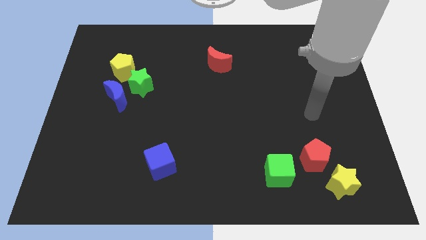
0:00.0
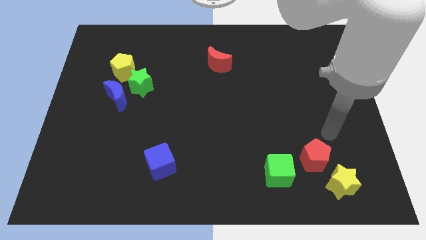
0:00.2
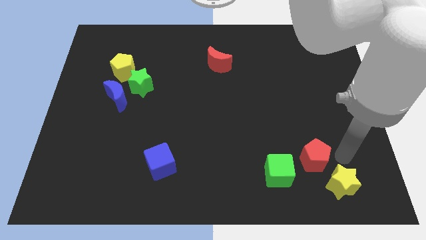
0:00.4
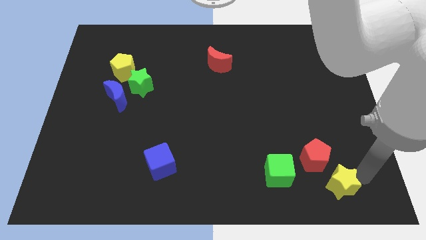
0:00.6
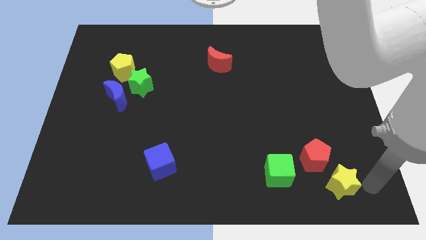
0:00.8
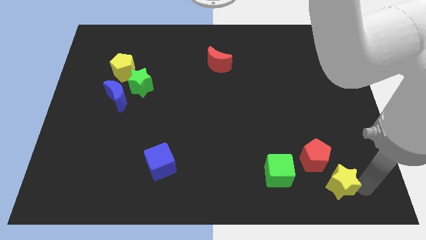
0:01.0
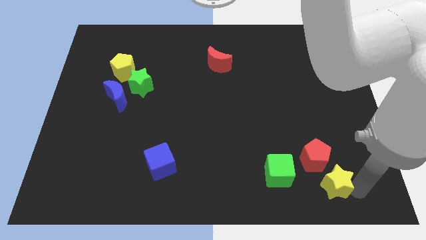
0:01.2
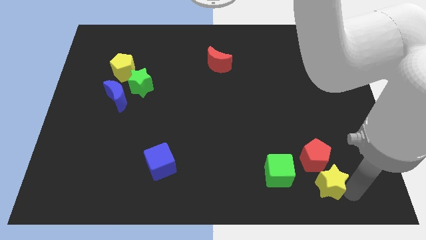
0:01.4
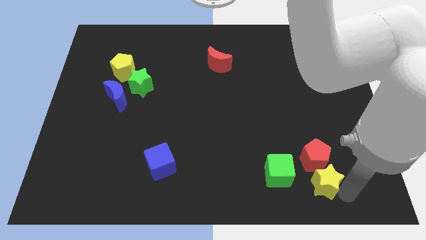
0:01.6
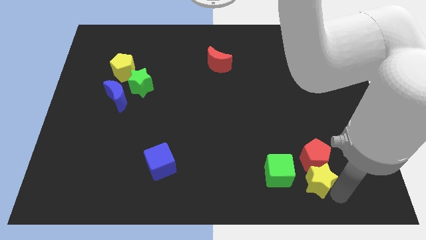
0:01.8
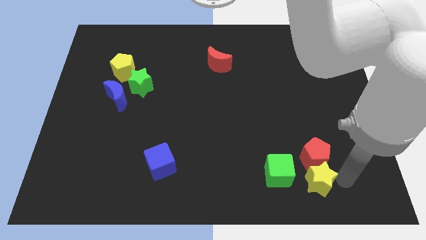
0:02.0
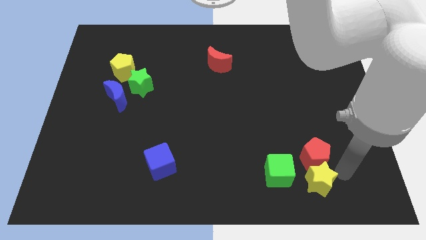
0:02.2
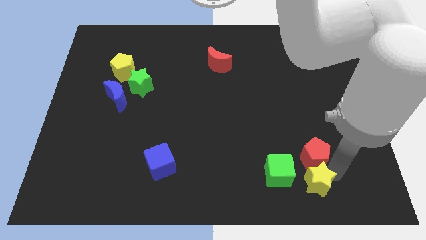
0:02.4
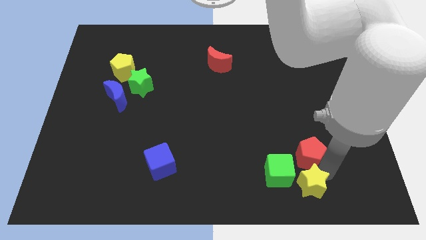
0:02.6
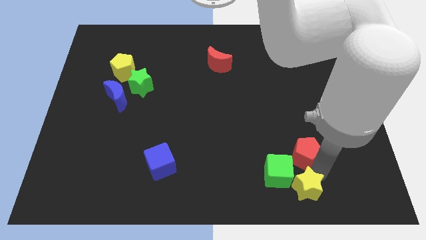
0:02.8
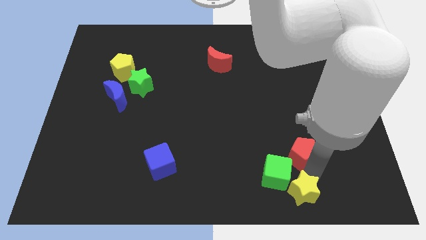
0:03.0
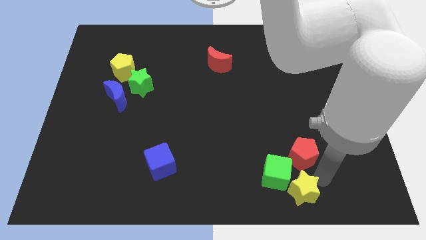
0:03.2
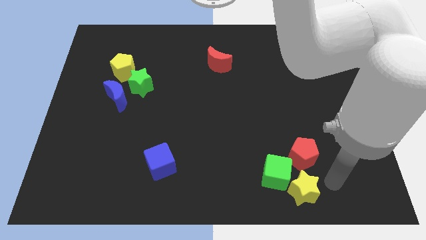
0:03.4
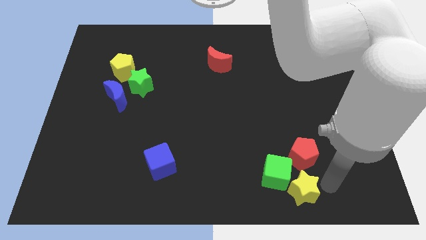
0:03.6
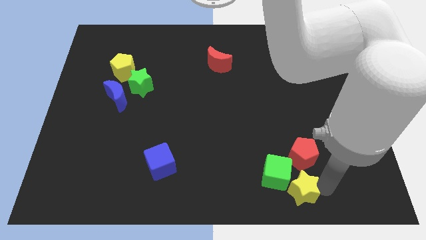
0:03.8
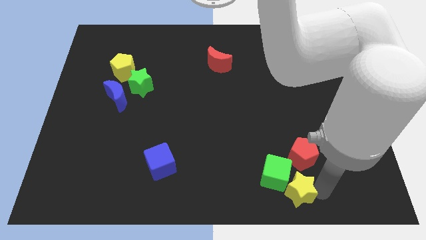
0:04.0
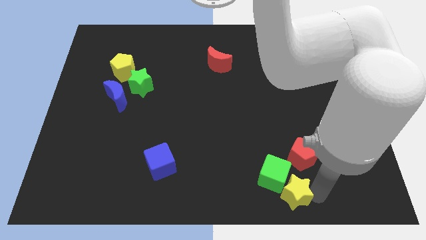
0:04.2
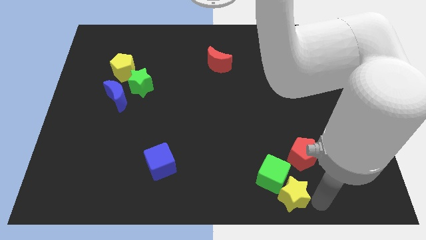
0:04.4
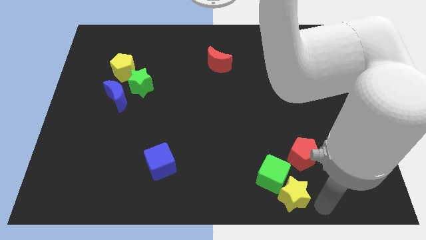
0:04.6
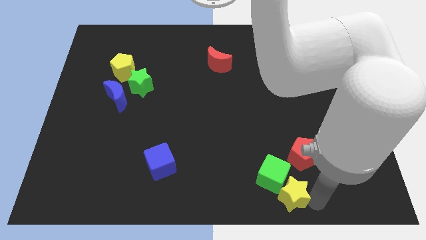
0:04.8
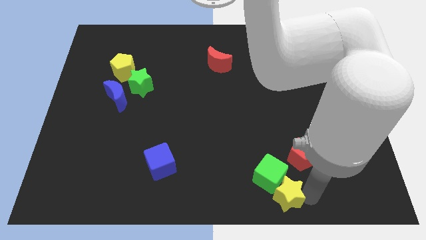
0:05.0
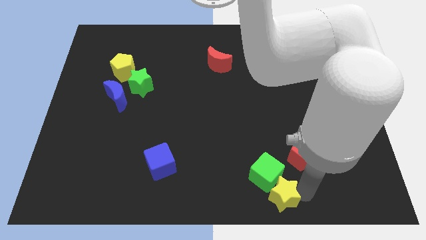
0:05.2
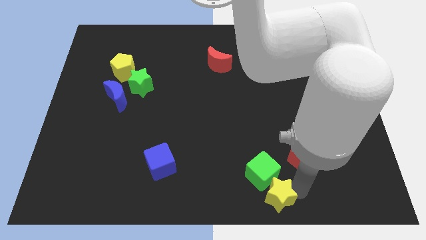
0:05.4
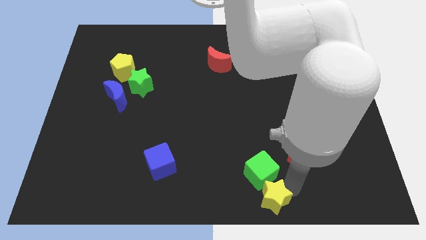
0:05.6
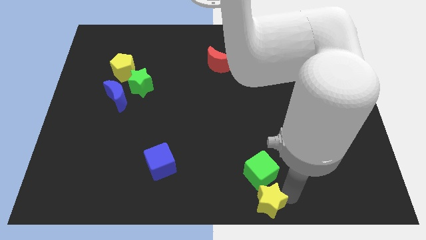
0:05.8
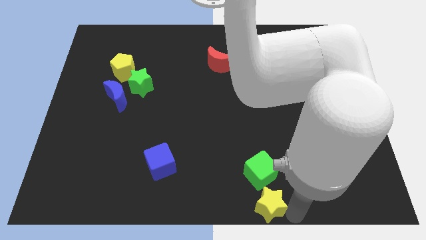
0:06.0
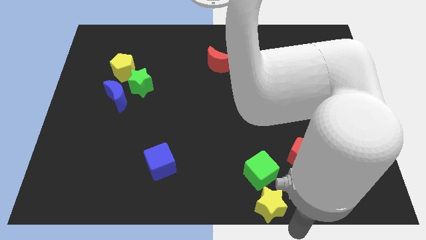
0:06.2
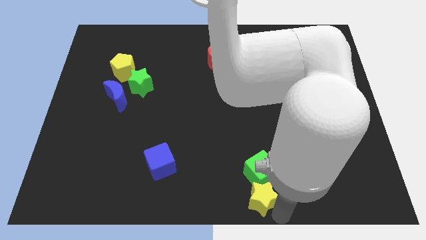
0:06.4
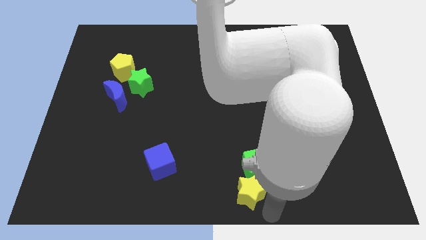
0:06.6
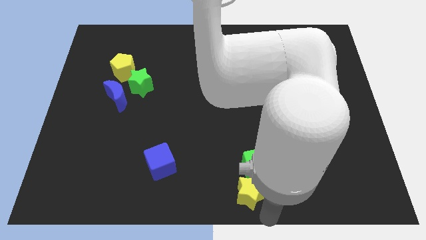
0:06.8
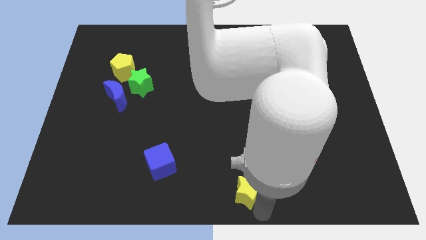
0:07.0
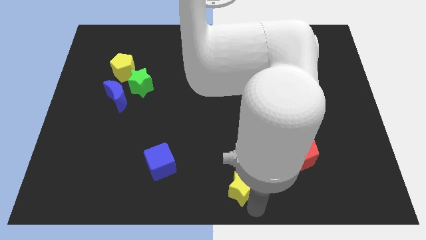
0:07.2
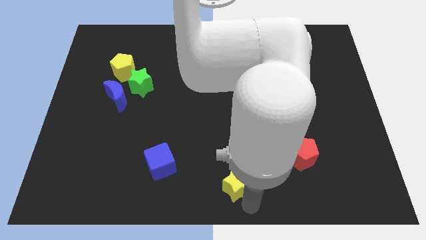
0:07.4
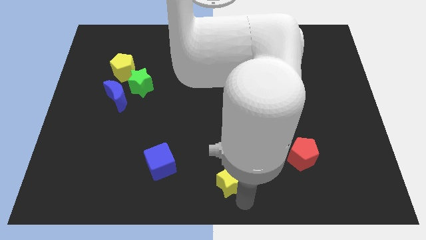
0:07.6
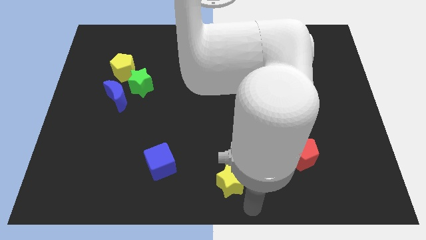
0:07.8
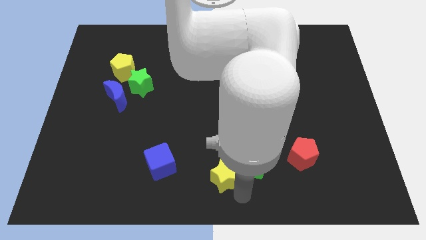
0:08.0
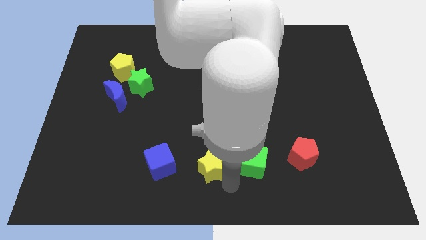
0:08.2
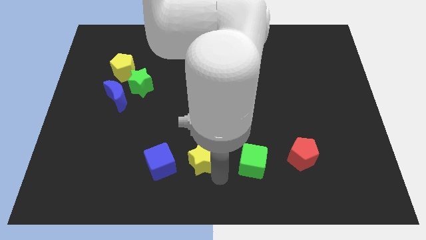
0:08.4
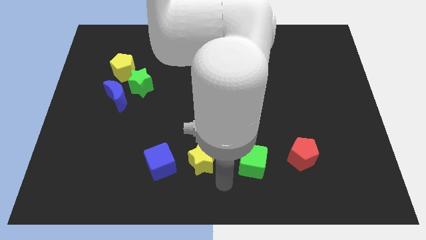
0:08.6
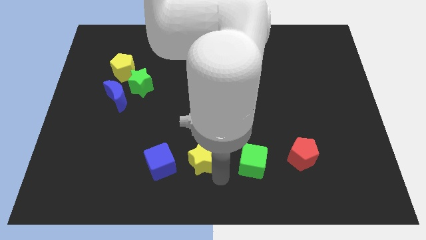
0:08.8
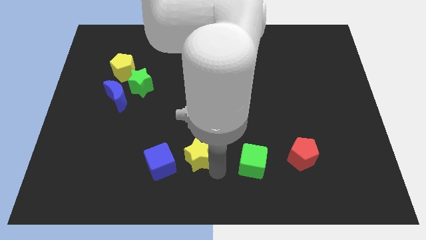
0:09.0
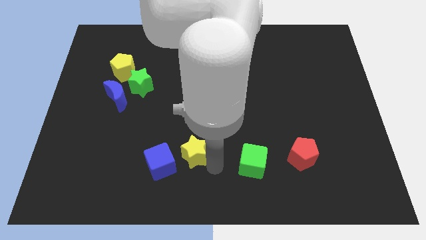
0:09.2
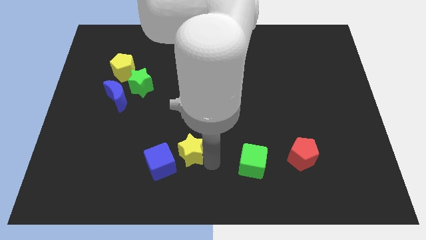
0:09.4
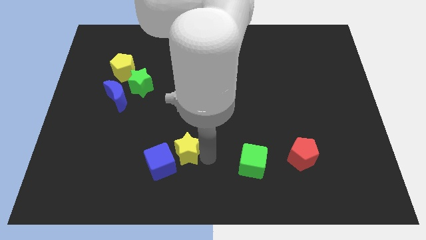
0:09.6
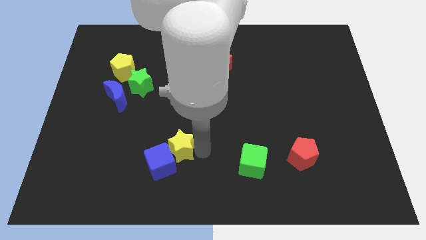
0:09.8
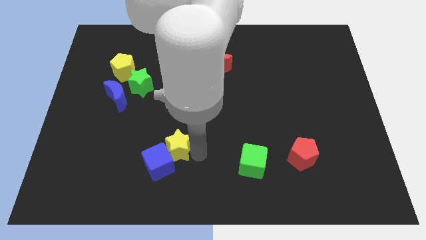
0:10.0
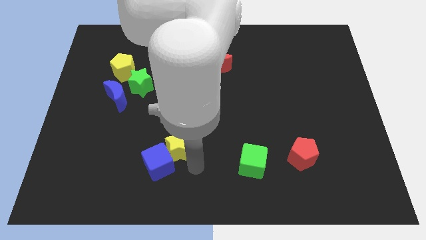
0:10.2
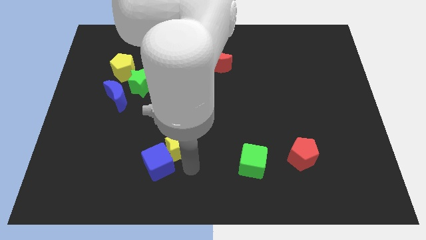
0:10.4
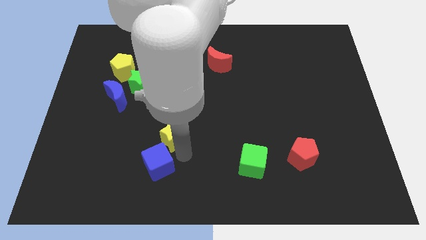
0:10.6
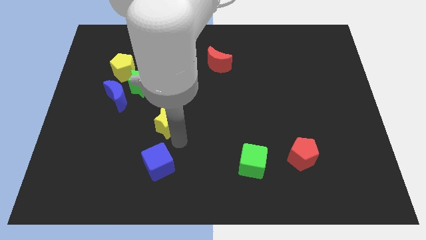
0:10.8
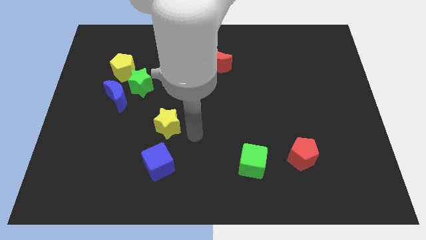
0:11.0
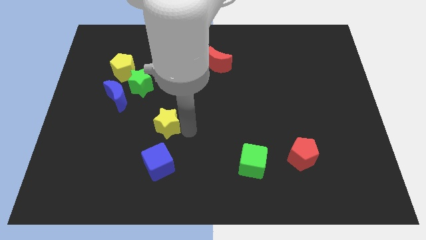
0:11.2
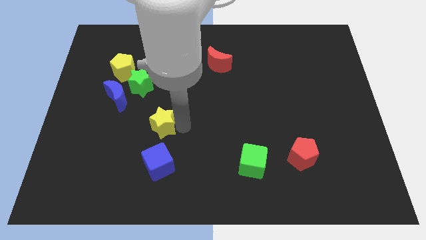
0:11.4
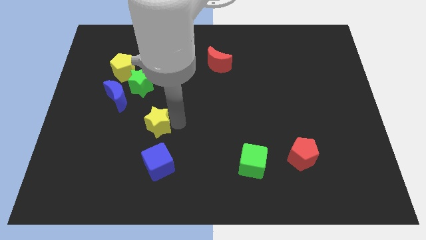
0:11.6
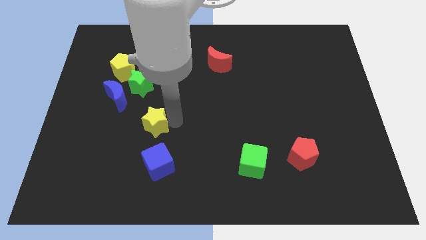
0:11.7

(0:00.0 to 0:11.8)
put the yellow star diagonally down and to the right of the blue moon

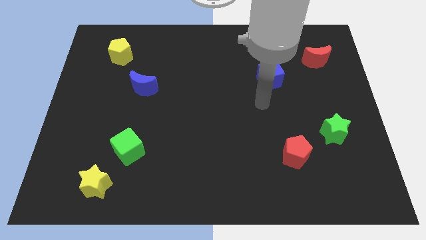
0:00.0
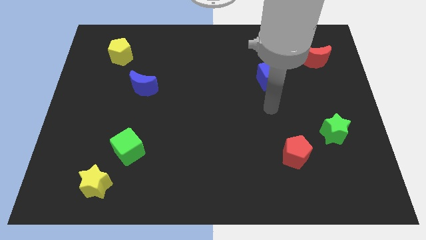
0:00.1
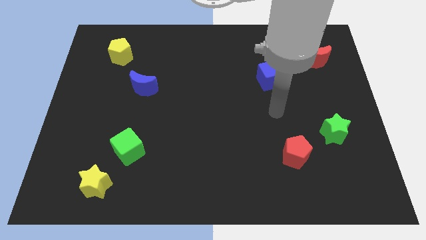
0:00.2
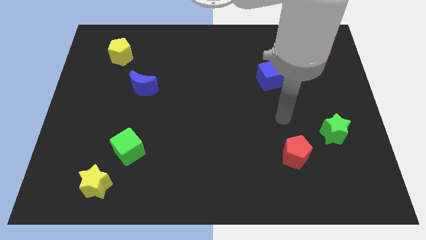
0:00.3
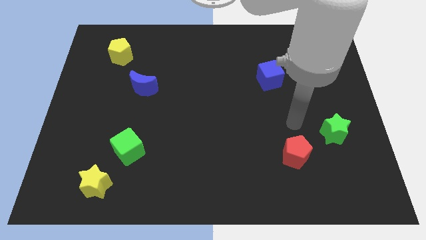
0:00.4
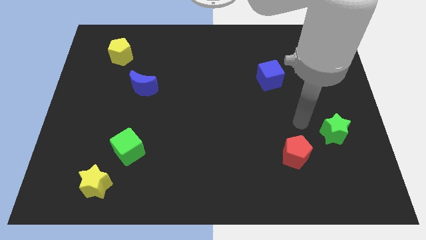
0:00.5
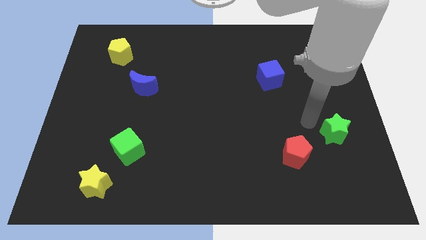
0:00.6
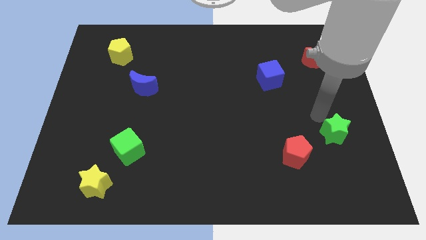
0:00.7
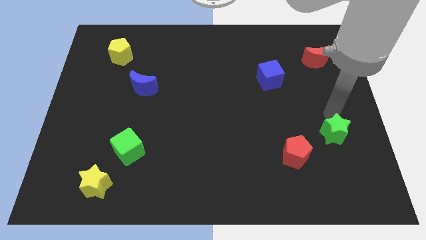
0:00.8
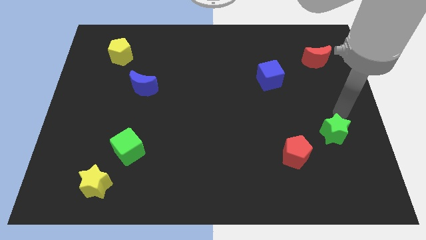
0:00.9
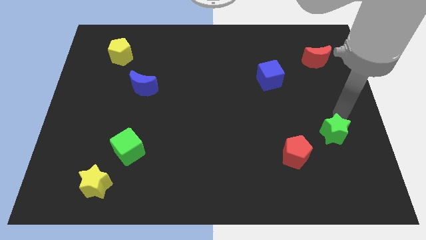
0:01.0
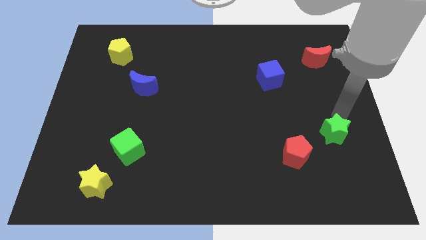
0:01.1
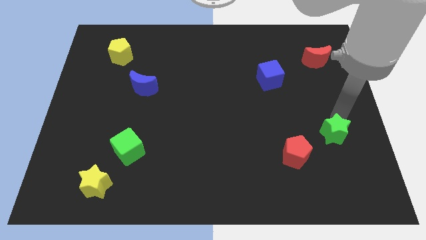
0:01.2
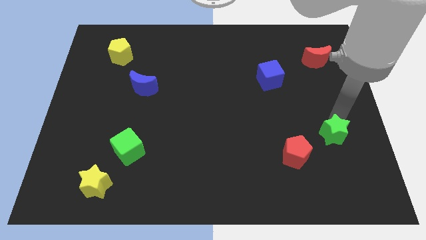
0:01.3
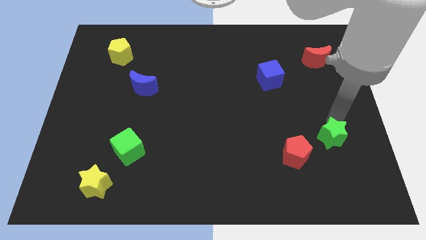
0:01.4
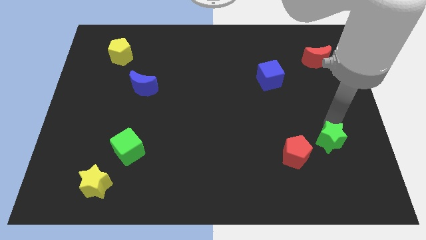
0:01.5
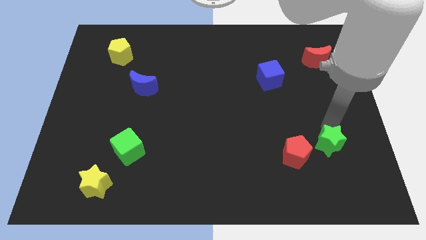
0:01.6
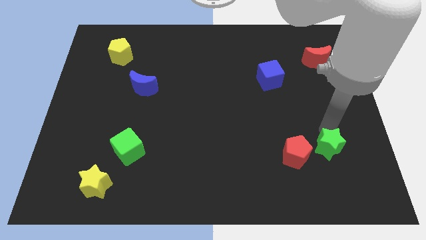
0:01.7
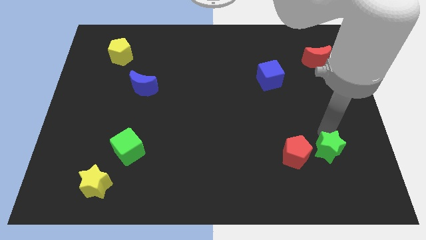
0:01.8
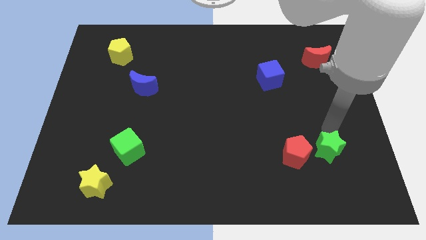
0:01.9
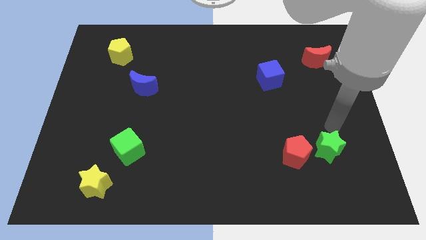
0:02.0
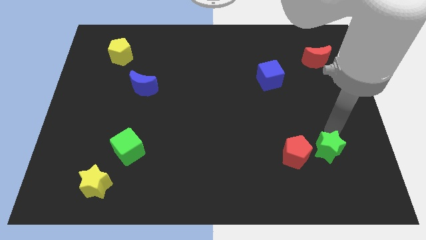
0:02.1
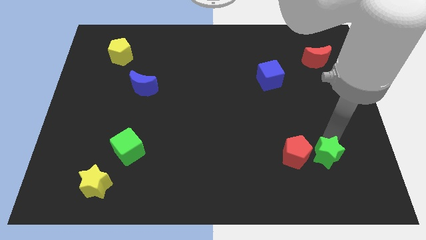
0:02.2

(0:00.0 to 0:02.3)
push the green star diagonally down and to the right of the red pentagon
